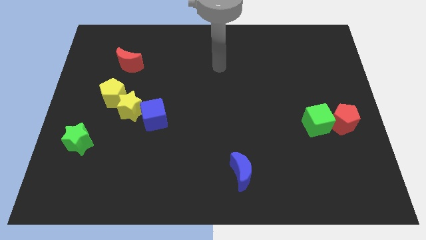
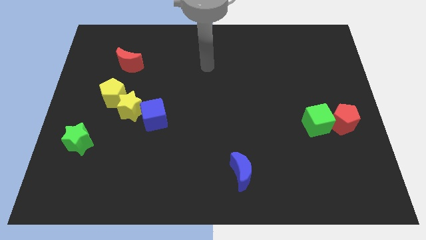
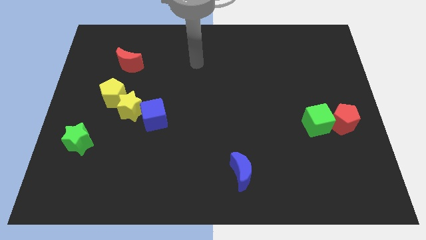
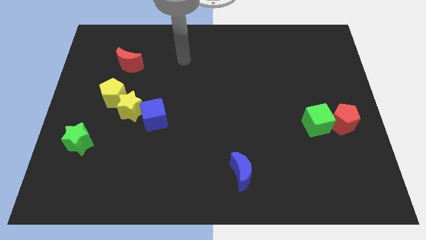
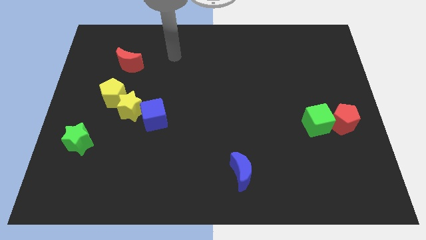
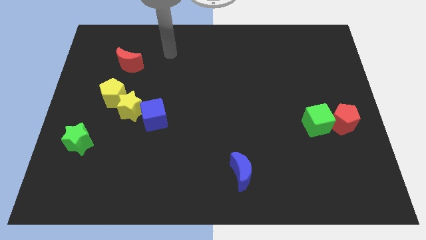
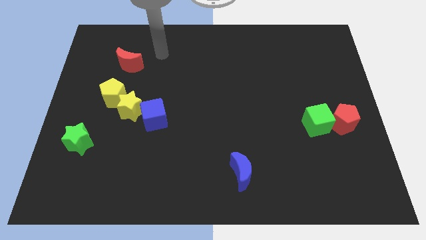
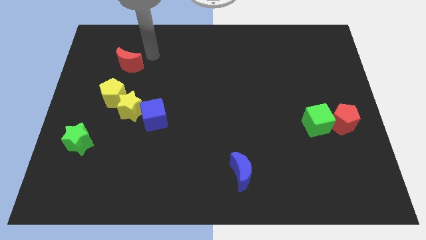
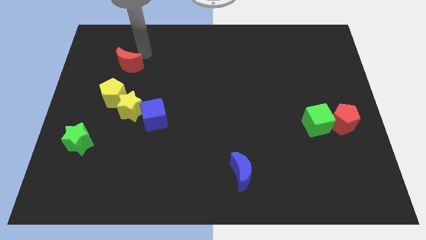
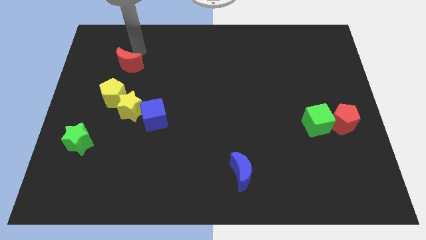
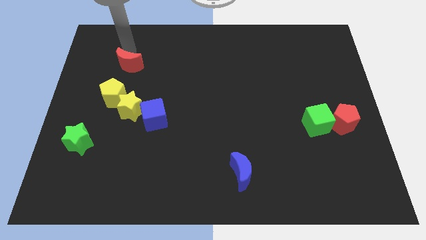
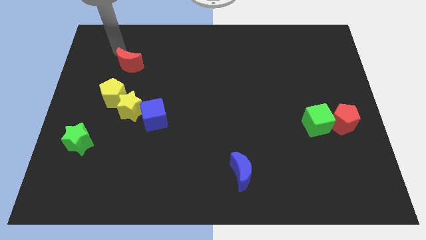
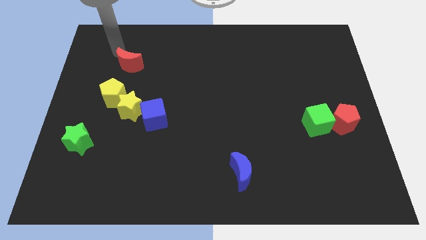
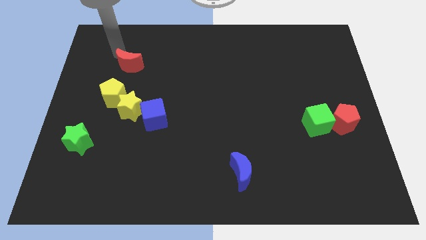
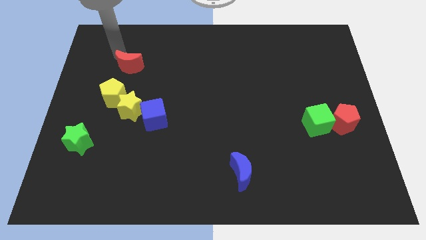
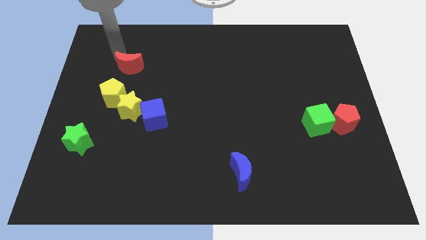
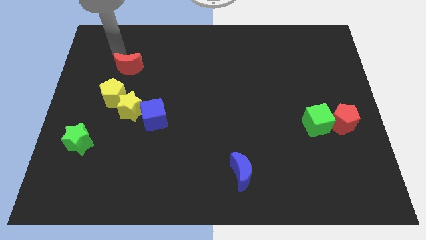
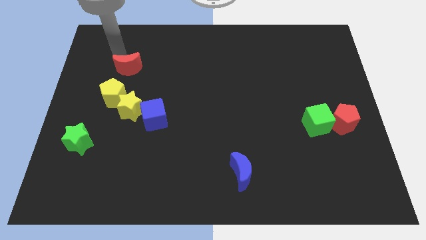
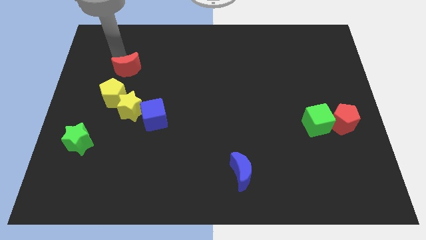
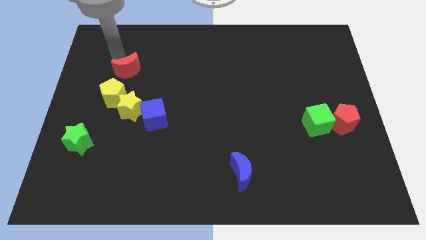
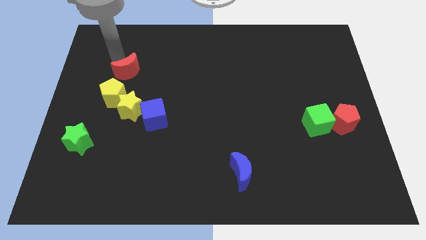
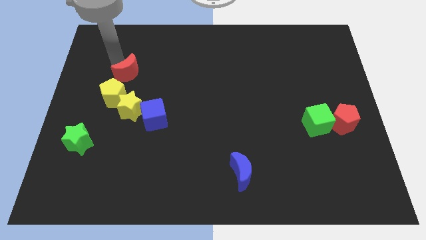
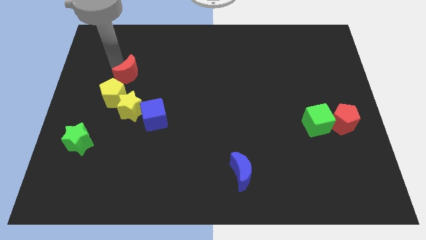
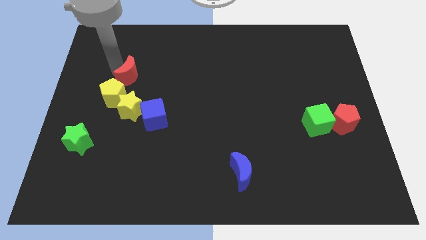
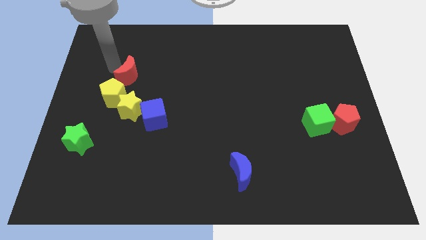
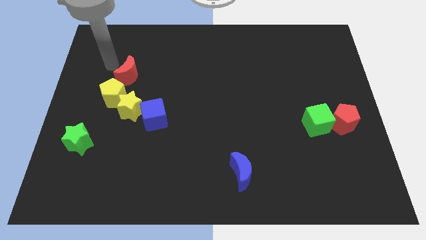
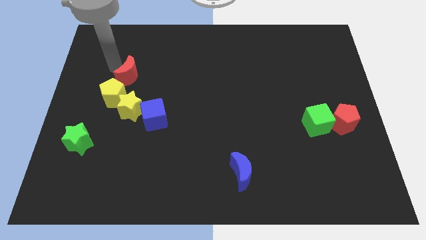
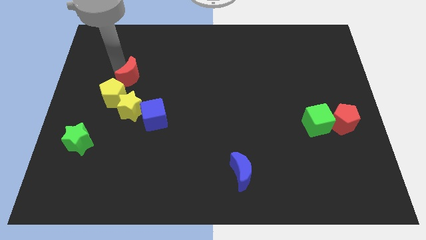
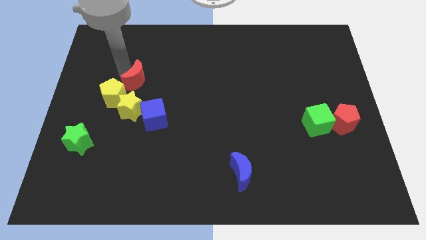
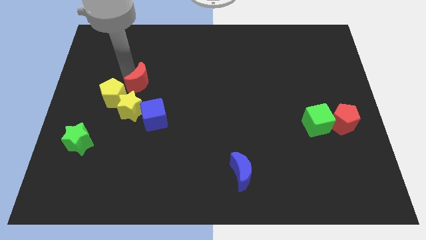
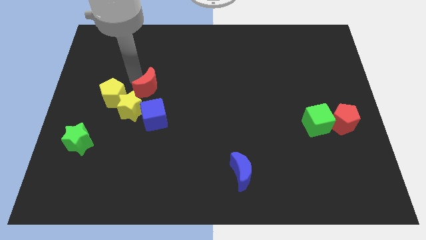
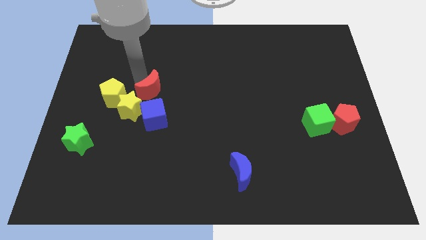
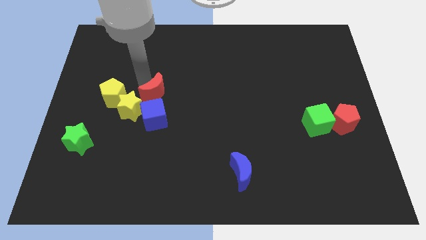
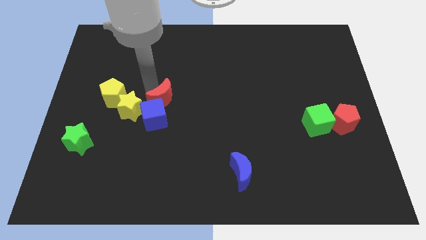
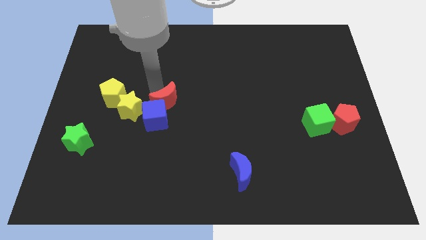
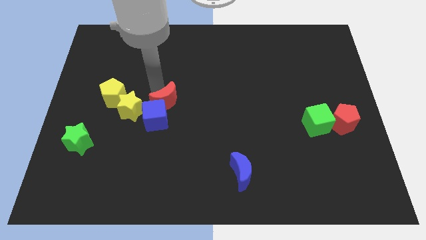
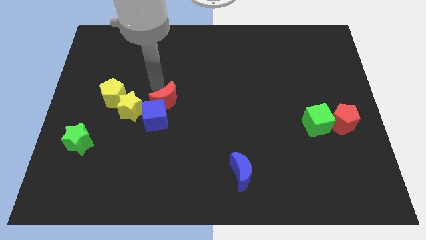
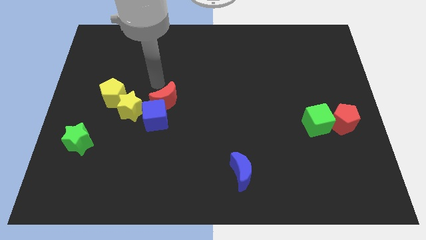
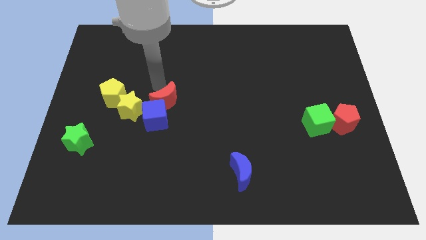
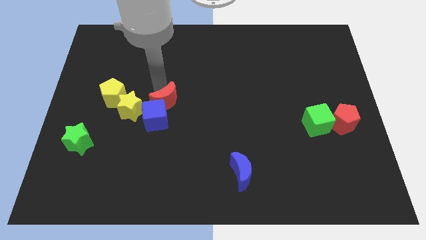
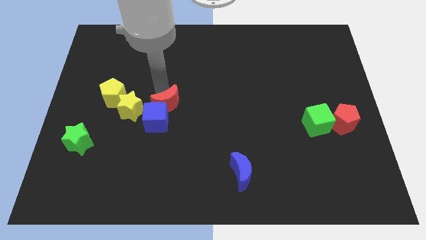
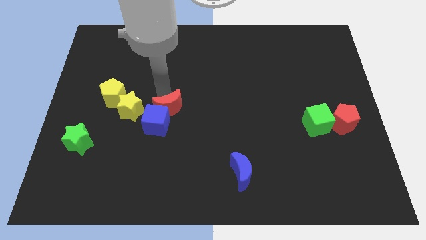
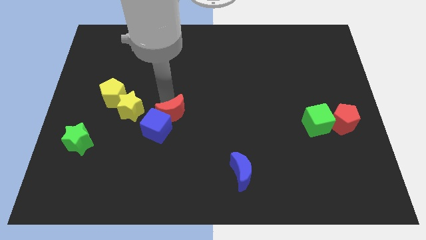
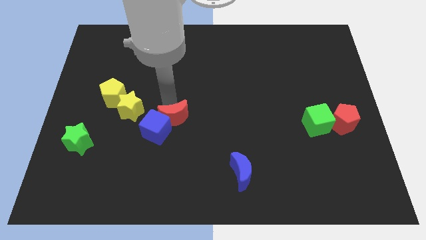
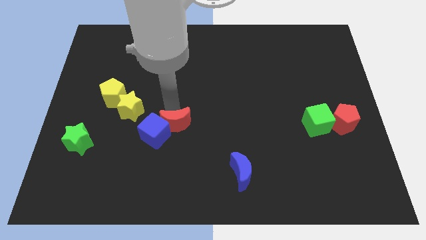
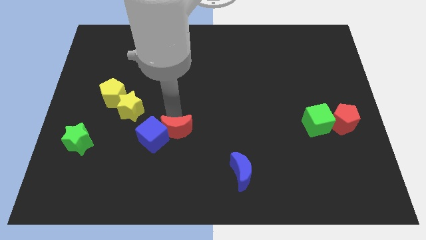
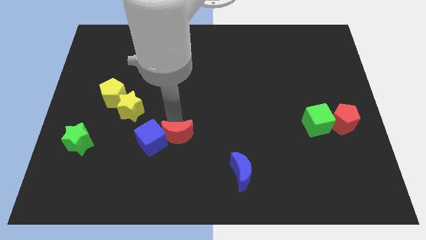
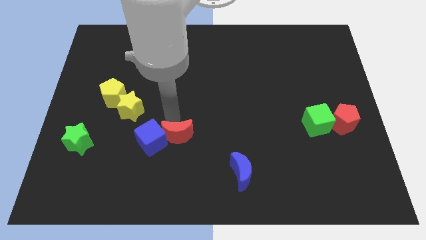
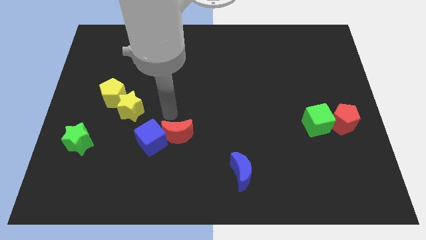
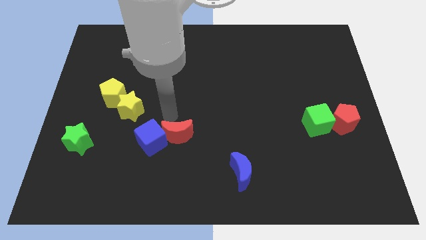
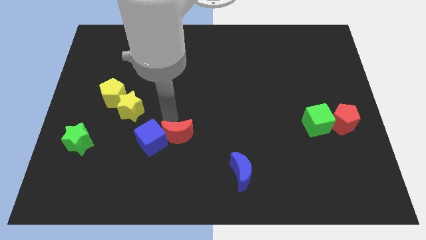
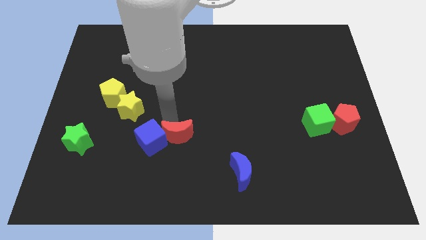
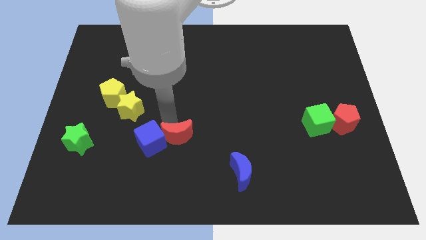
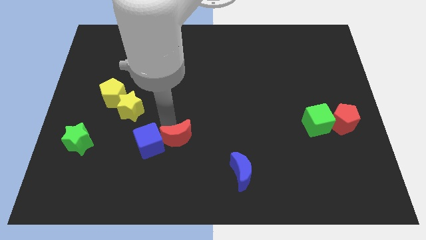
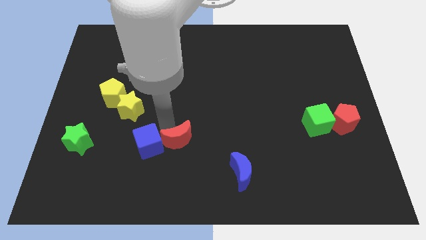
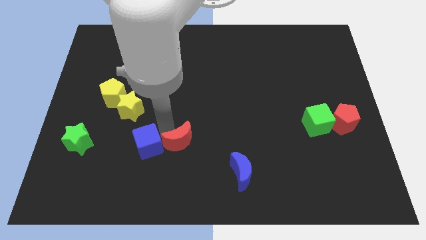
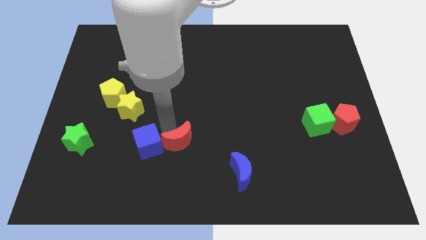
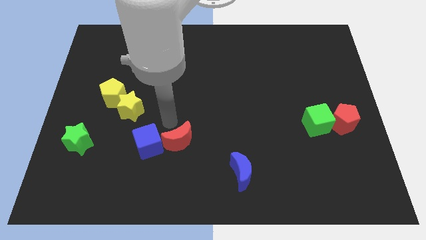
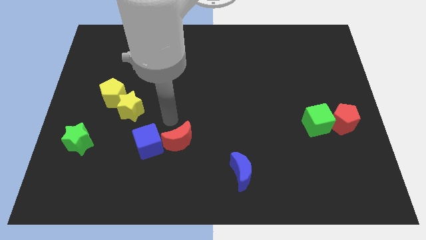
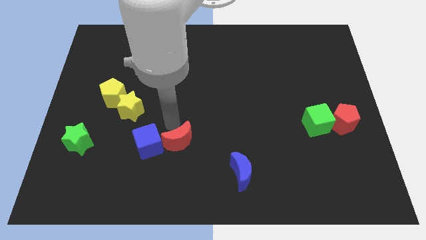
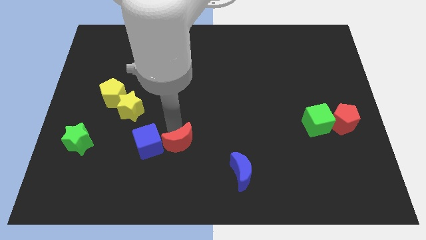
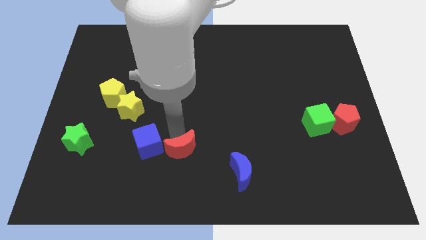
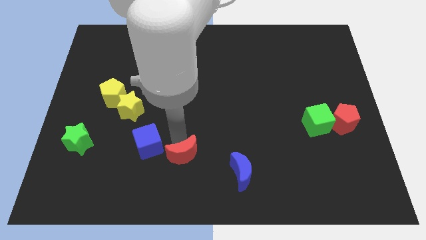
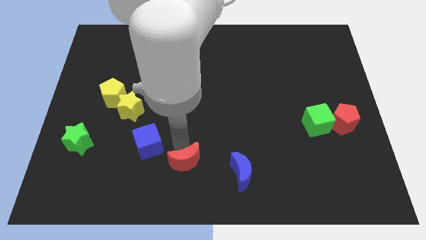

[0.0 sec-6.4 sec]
move the red moon to the bottom side
